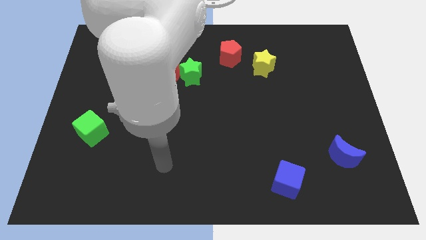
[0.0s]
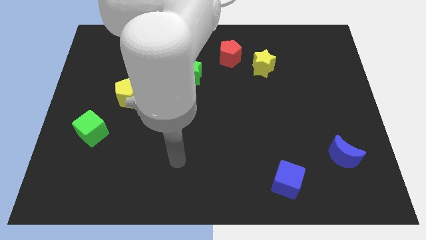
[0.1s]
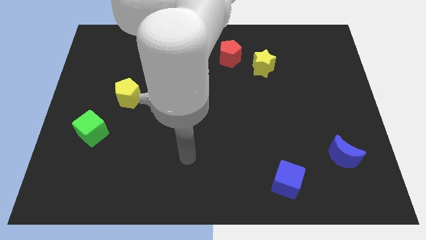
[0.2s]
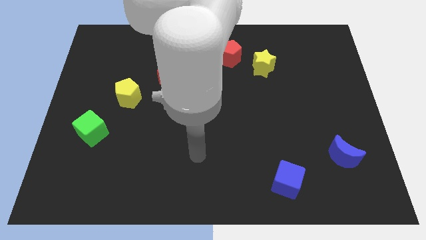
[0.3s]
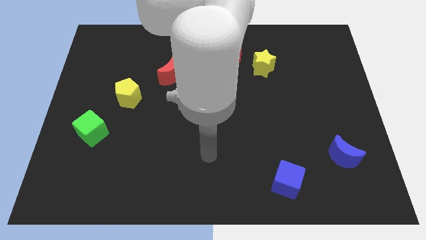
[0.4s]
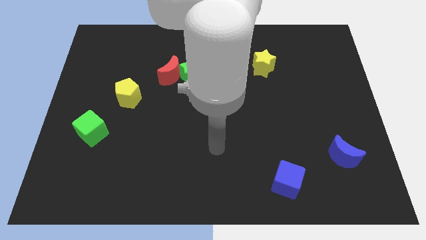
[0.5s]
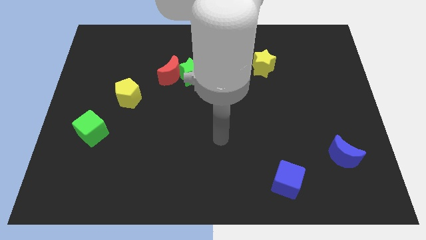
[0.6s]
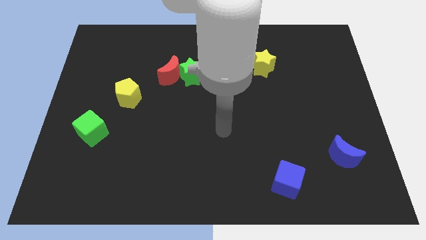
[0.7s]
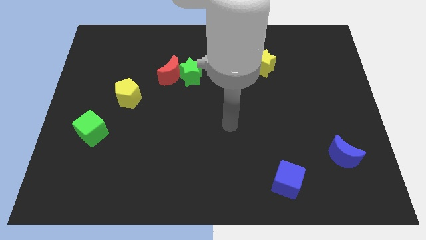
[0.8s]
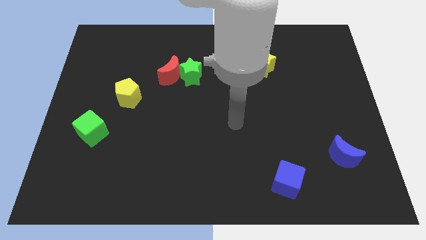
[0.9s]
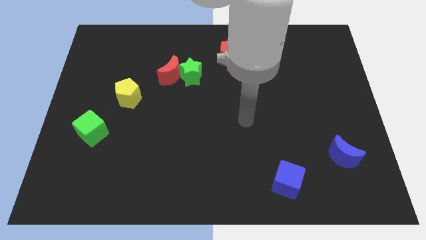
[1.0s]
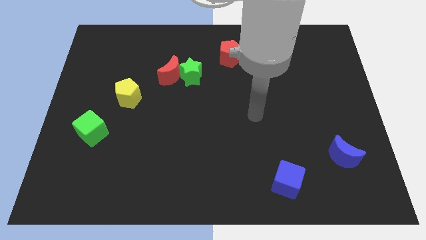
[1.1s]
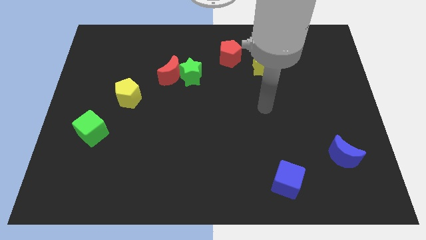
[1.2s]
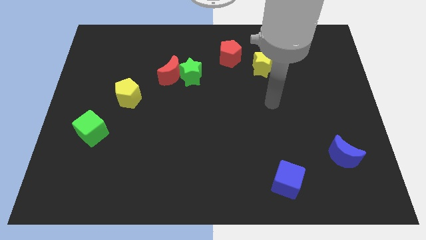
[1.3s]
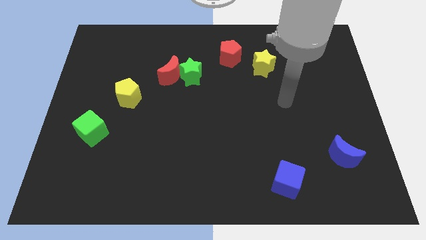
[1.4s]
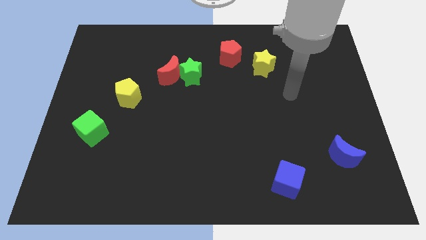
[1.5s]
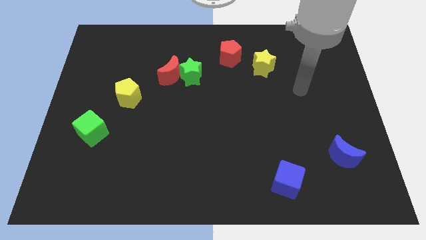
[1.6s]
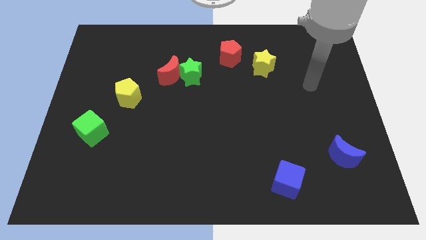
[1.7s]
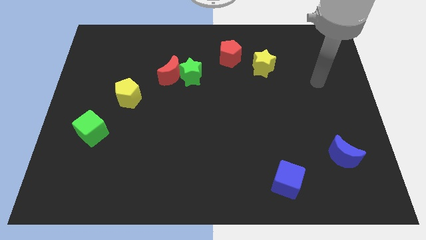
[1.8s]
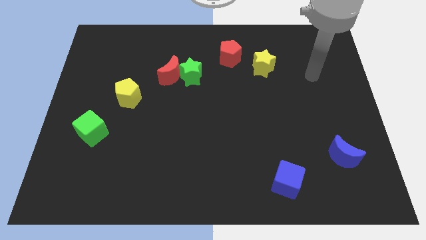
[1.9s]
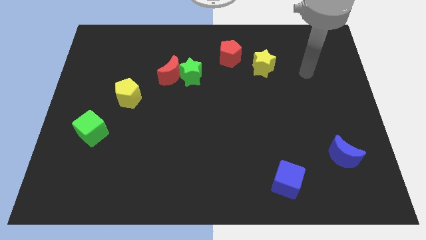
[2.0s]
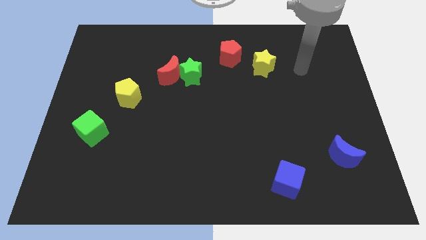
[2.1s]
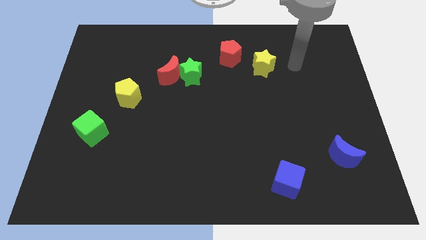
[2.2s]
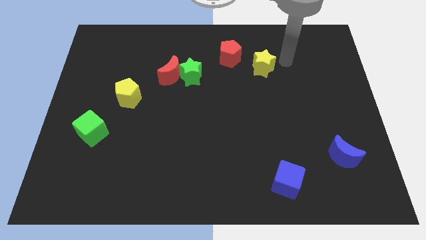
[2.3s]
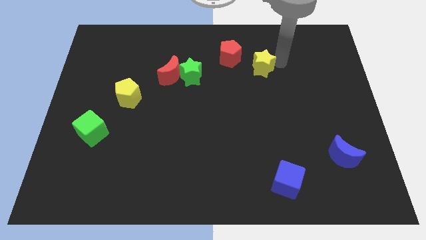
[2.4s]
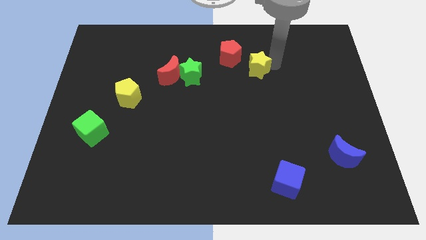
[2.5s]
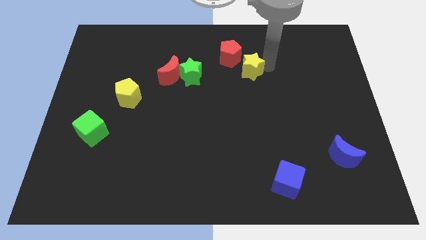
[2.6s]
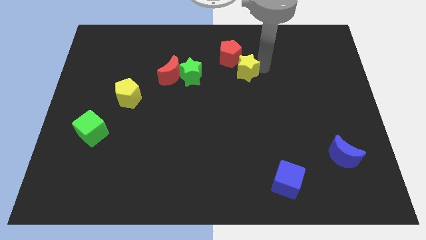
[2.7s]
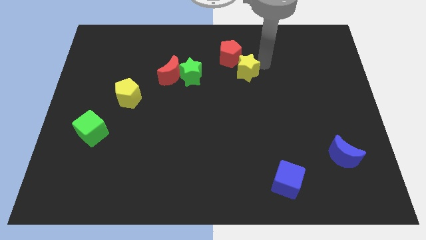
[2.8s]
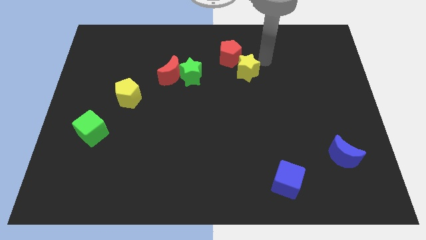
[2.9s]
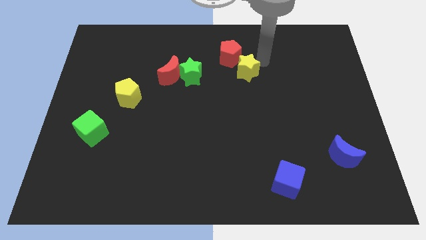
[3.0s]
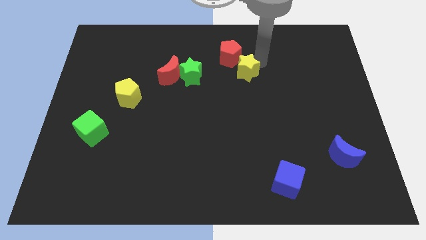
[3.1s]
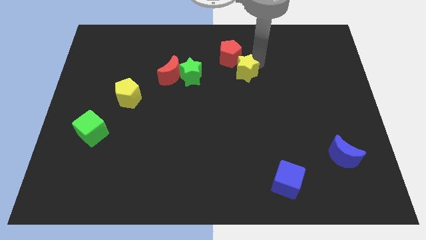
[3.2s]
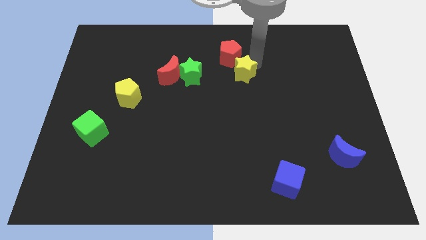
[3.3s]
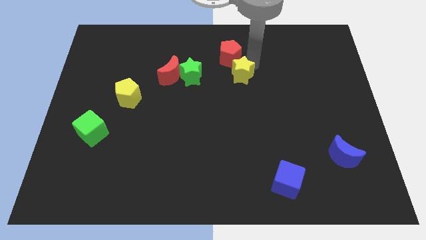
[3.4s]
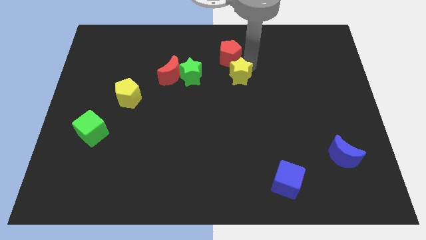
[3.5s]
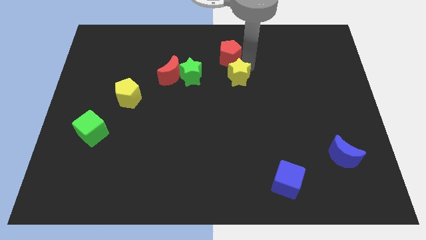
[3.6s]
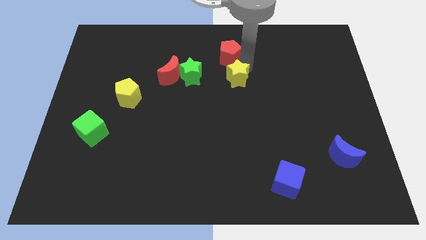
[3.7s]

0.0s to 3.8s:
move the yellow star down and to the left somewhat

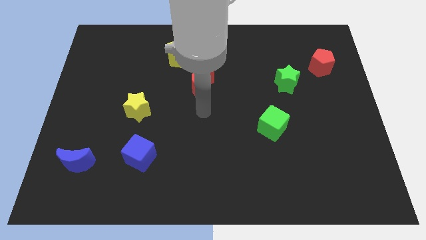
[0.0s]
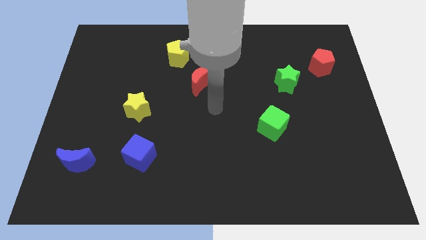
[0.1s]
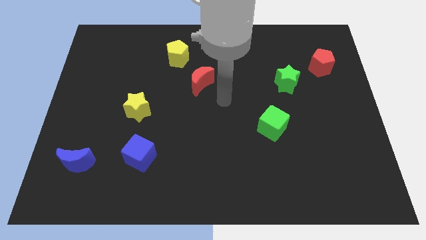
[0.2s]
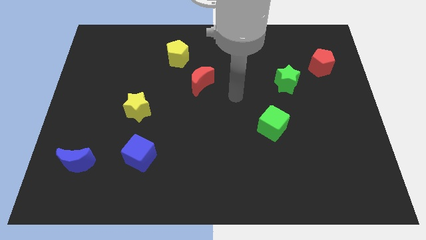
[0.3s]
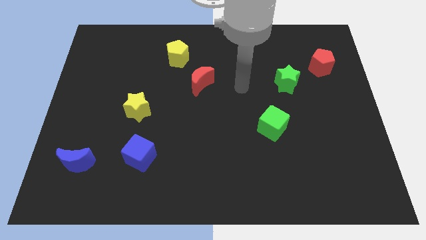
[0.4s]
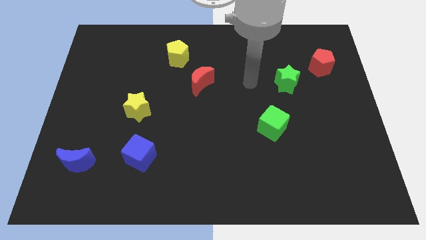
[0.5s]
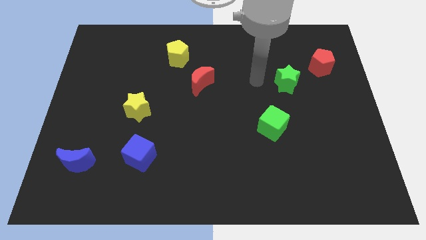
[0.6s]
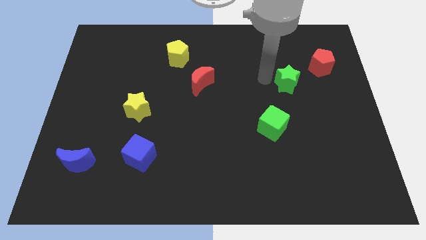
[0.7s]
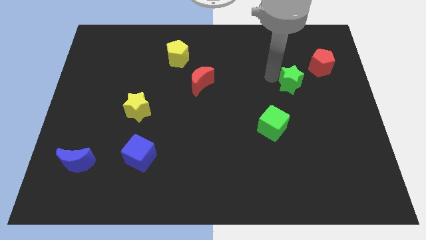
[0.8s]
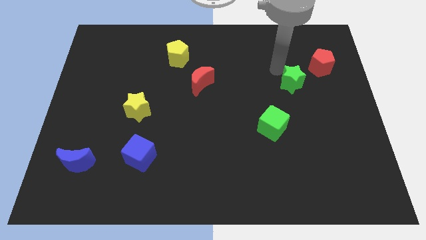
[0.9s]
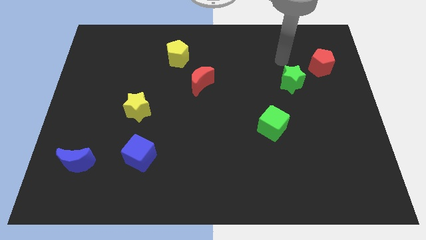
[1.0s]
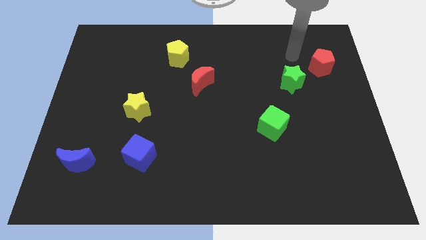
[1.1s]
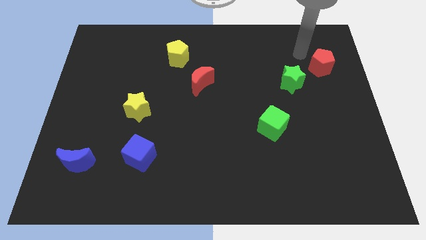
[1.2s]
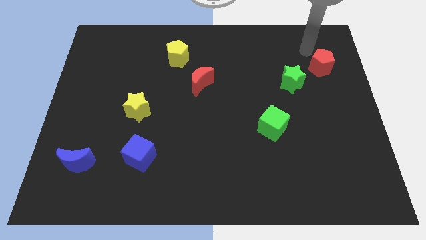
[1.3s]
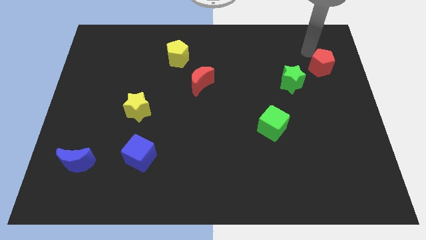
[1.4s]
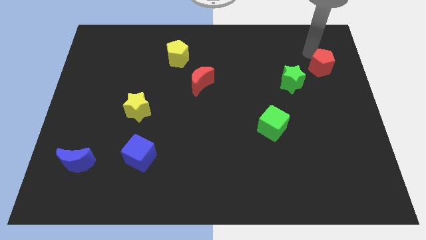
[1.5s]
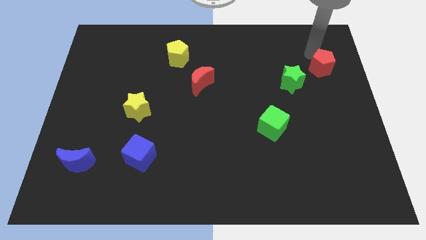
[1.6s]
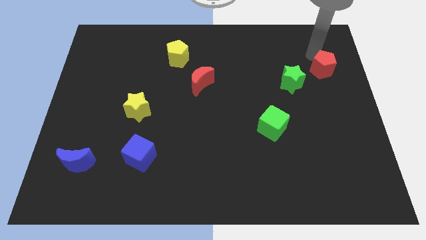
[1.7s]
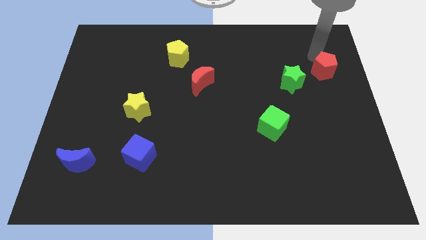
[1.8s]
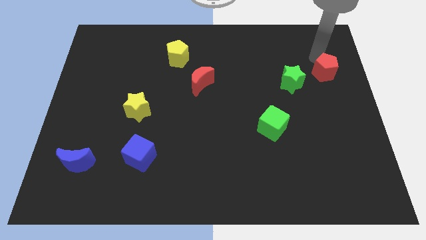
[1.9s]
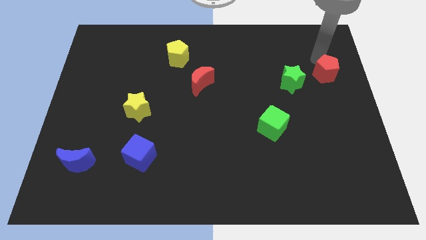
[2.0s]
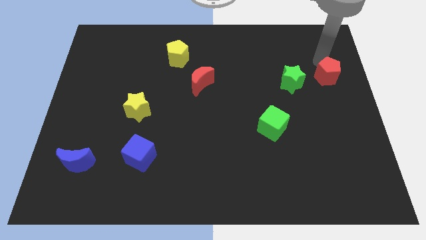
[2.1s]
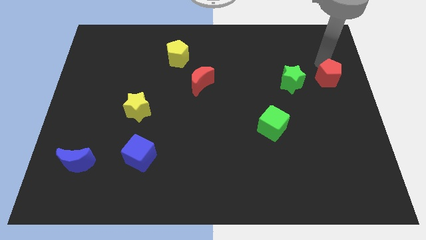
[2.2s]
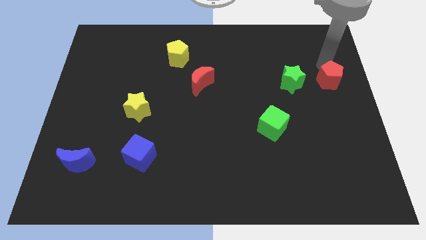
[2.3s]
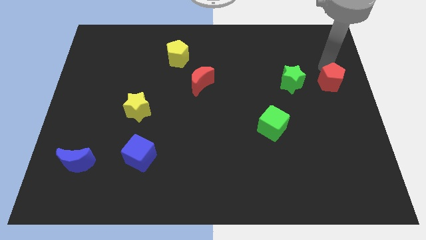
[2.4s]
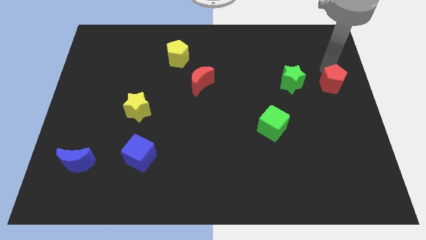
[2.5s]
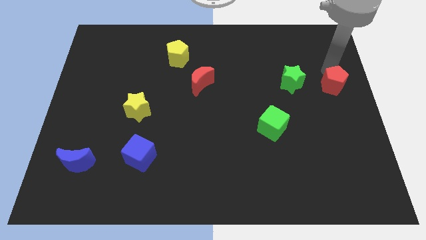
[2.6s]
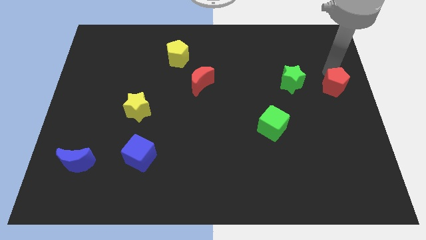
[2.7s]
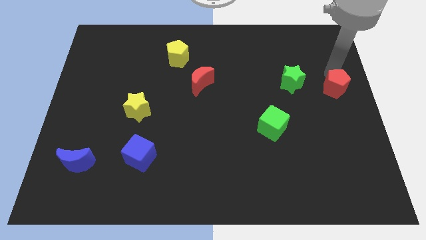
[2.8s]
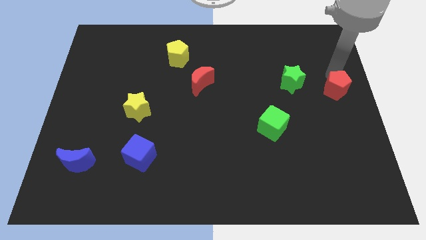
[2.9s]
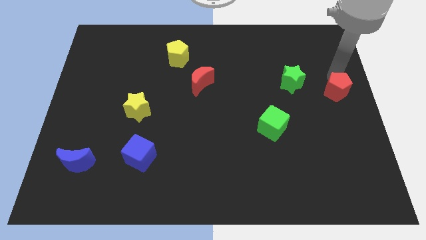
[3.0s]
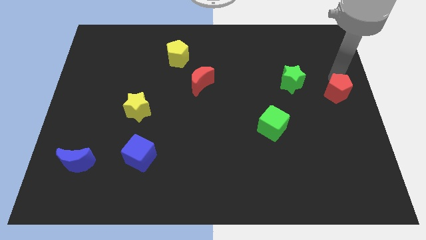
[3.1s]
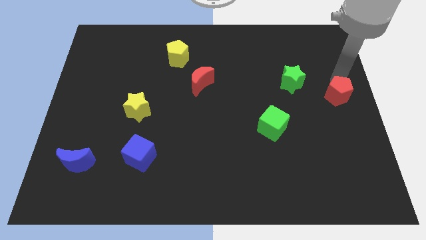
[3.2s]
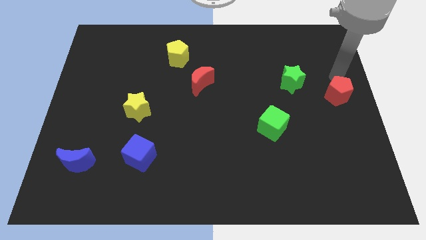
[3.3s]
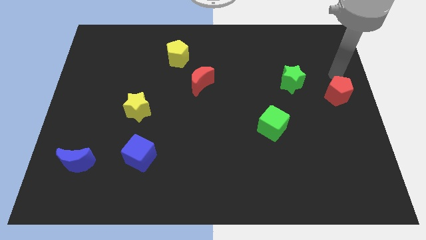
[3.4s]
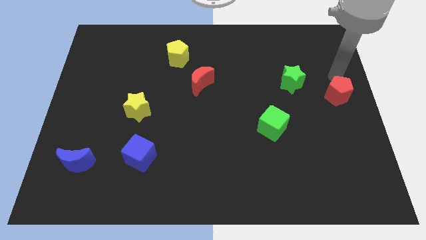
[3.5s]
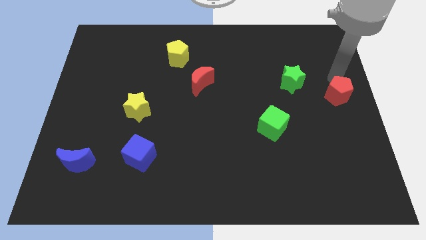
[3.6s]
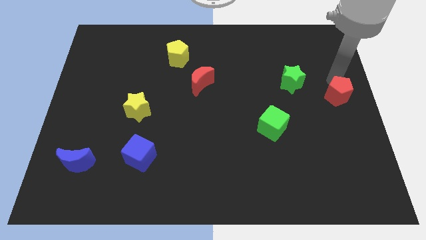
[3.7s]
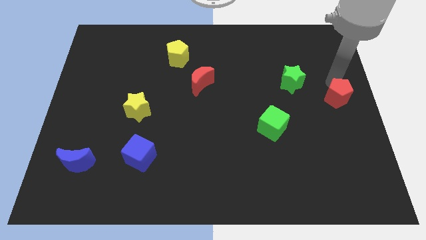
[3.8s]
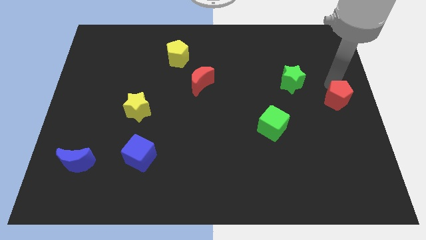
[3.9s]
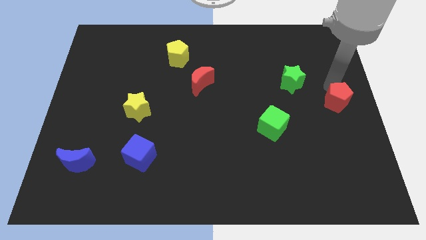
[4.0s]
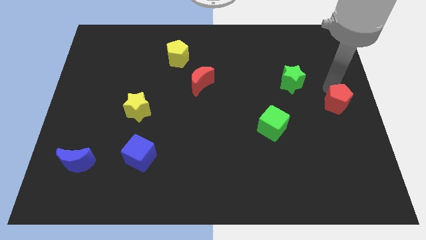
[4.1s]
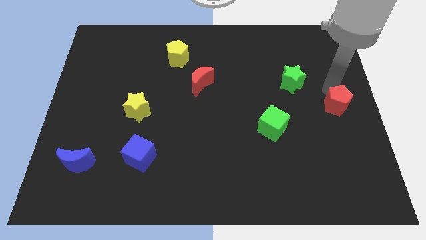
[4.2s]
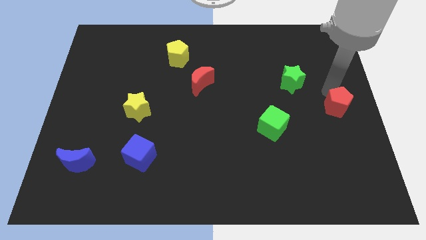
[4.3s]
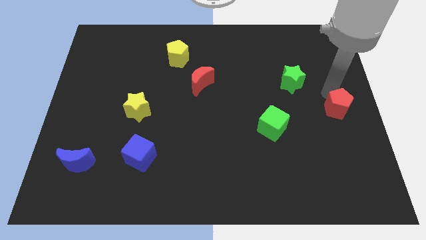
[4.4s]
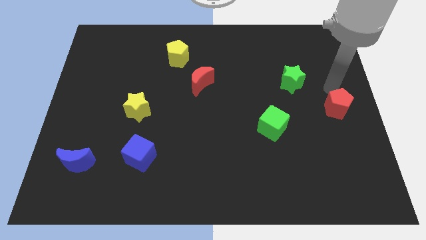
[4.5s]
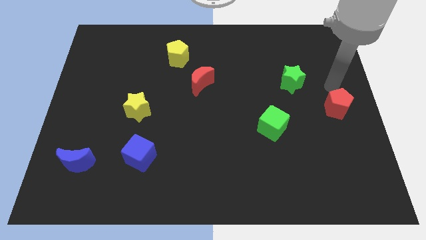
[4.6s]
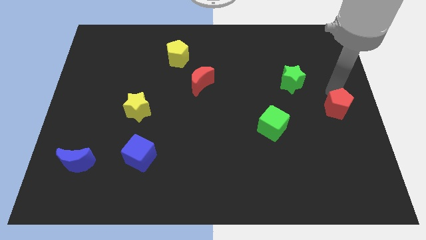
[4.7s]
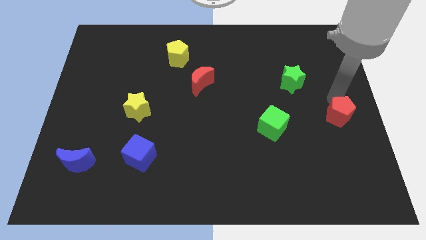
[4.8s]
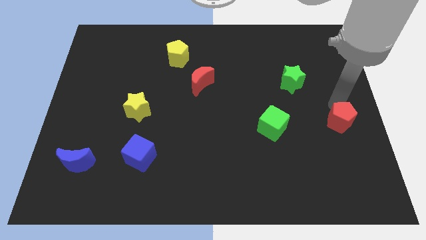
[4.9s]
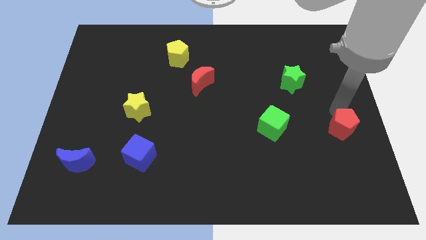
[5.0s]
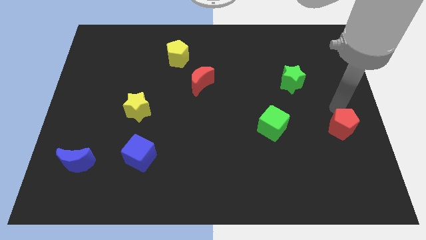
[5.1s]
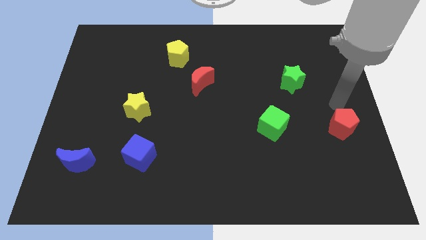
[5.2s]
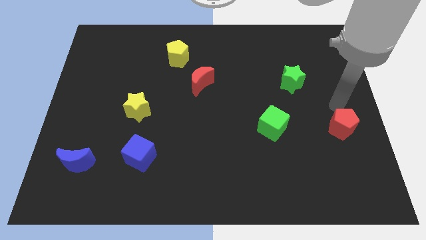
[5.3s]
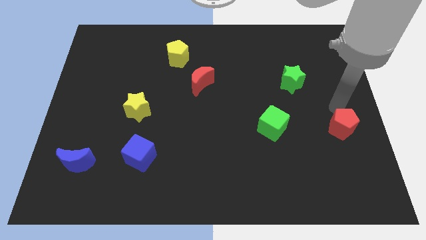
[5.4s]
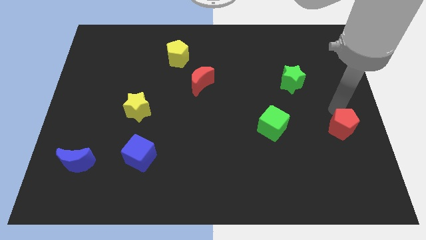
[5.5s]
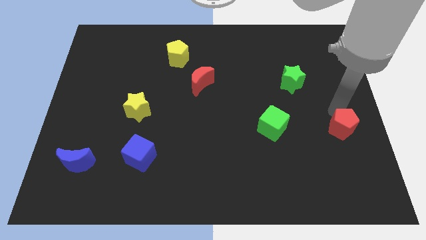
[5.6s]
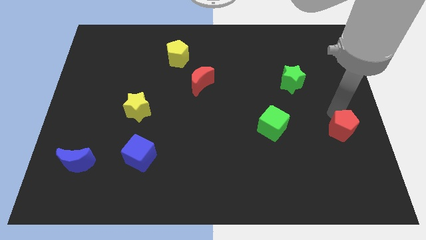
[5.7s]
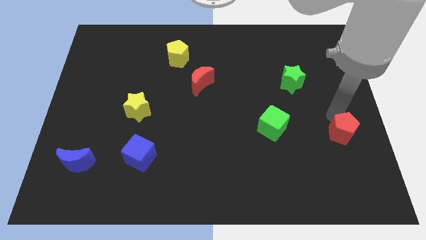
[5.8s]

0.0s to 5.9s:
push the red pentagon down
